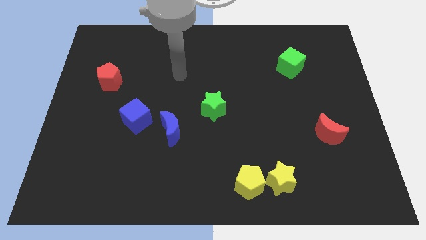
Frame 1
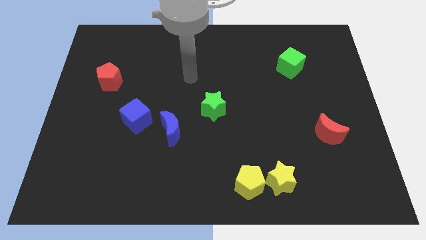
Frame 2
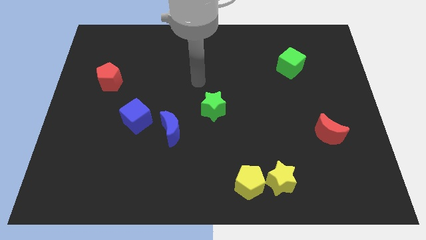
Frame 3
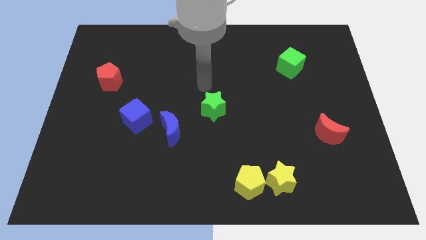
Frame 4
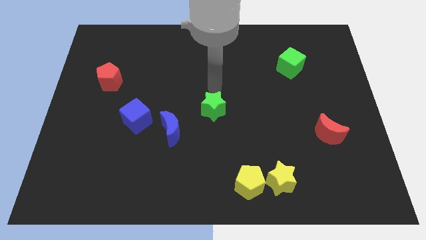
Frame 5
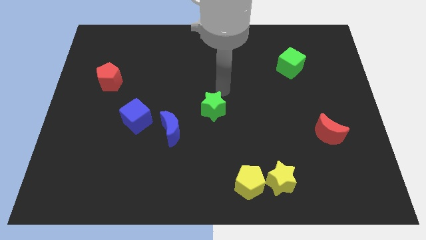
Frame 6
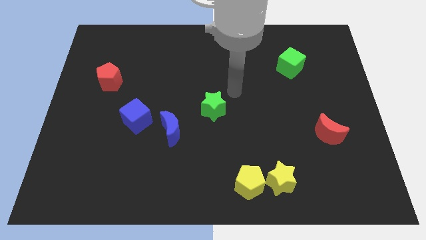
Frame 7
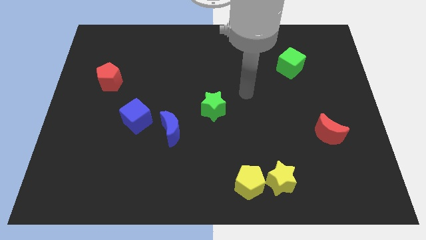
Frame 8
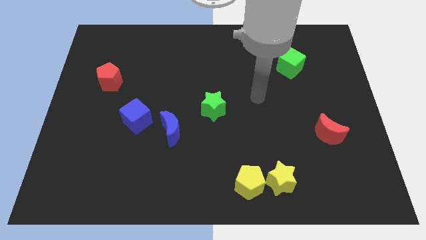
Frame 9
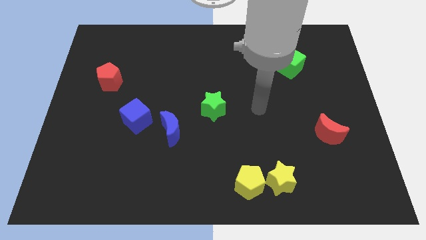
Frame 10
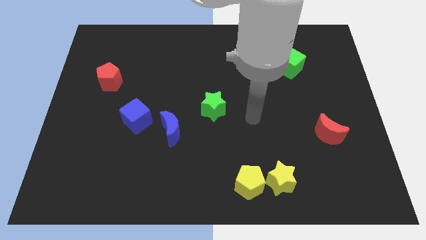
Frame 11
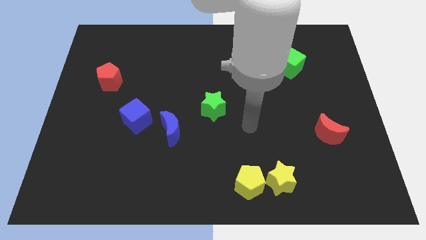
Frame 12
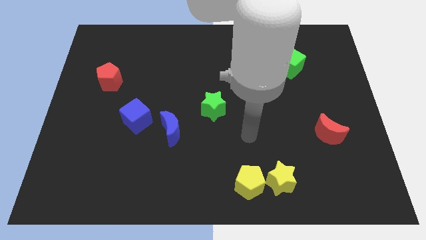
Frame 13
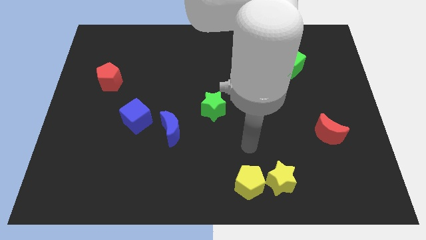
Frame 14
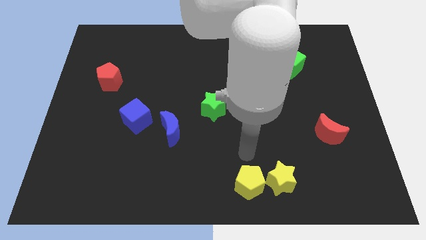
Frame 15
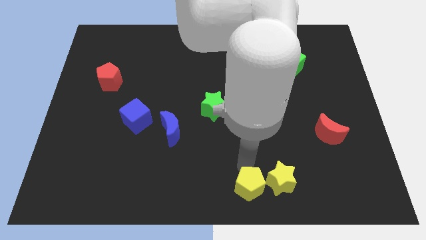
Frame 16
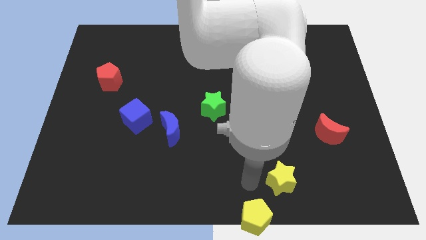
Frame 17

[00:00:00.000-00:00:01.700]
separate the yellow star from the yellow pentagon

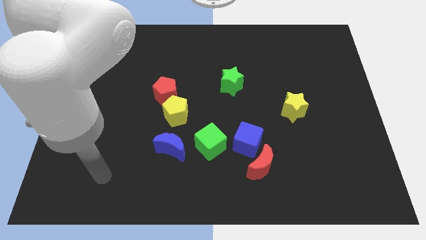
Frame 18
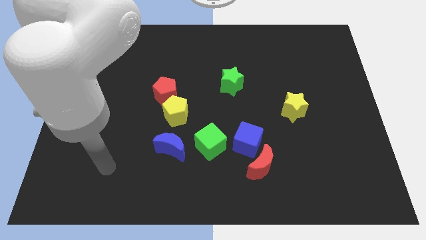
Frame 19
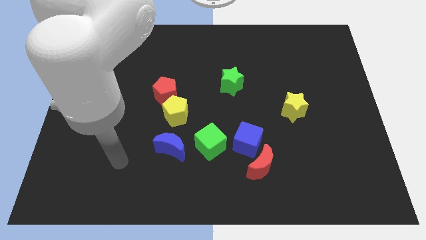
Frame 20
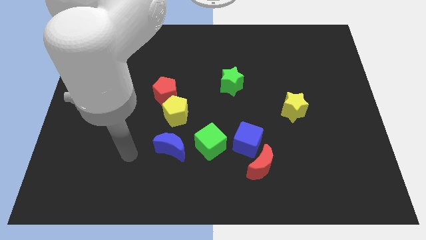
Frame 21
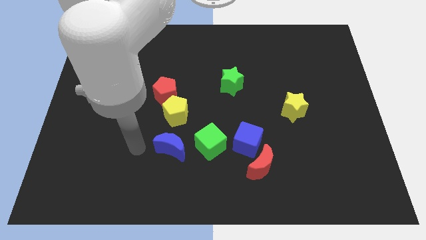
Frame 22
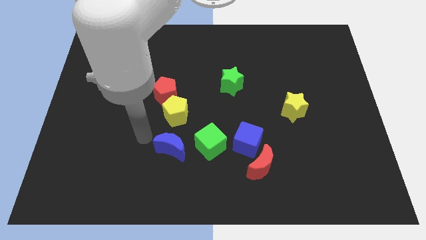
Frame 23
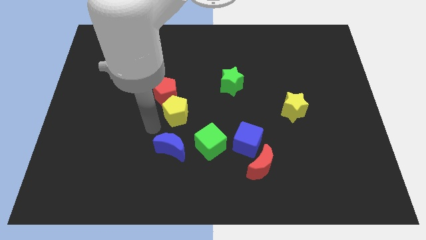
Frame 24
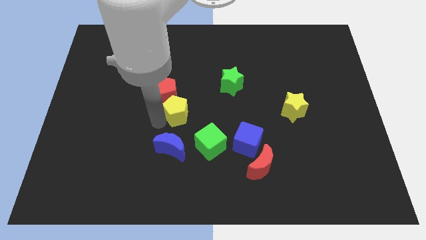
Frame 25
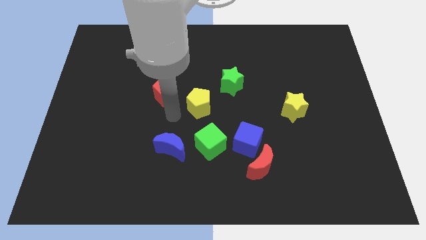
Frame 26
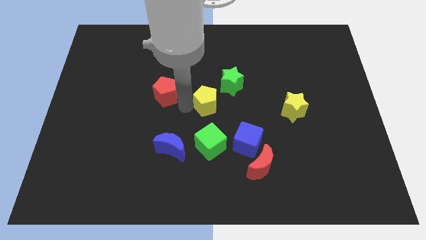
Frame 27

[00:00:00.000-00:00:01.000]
separate the red pentagon from the yellow pentagon

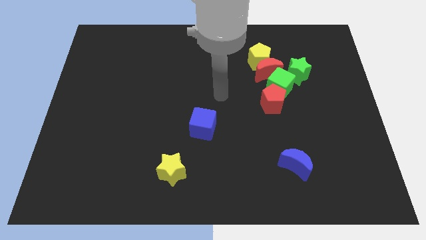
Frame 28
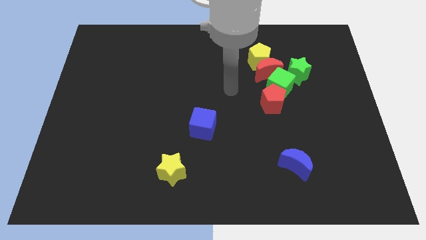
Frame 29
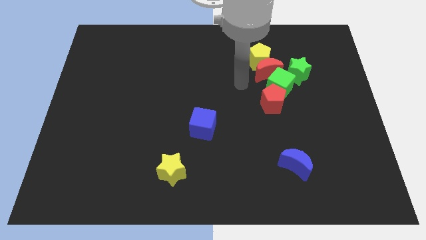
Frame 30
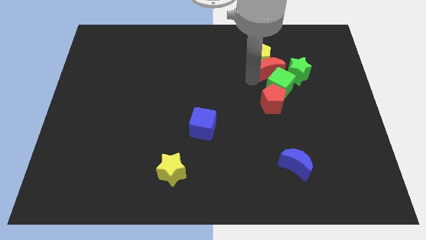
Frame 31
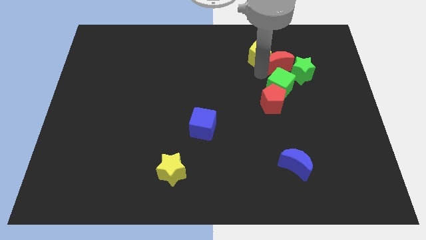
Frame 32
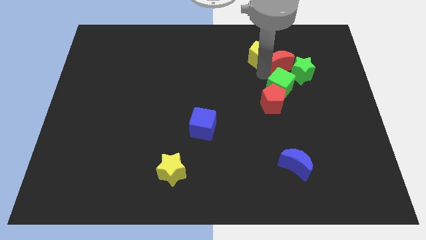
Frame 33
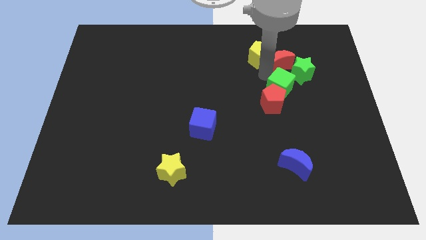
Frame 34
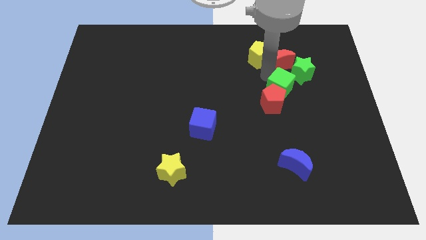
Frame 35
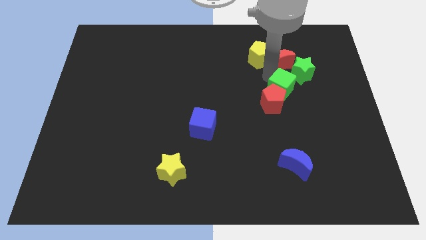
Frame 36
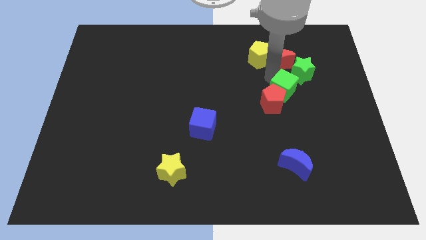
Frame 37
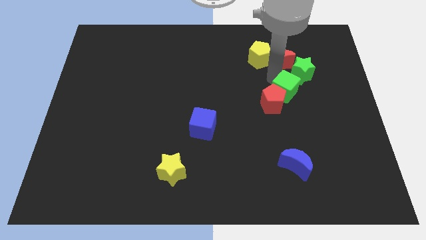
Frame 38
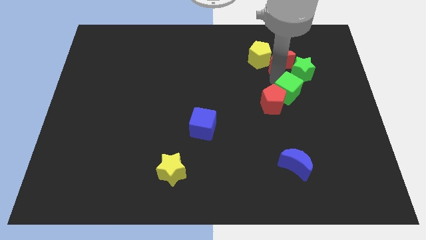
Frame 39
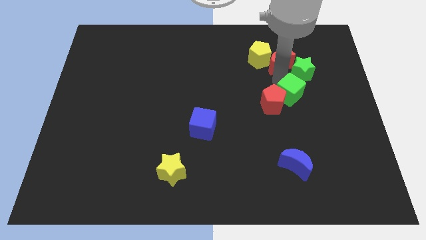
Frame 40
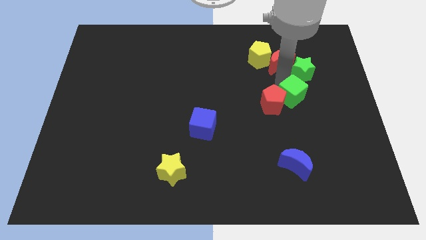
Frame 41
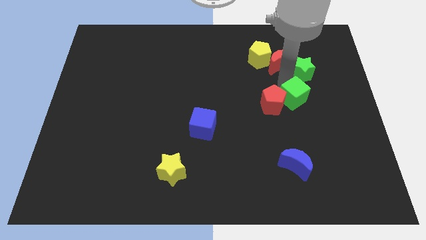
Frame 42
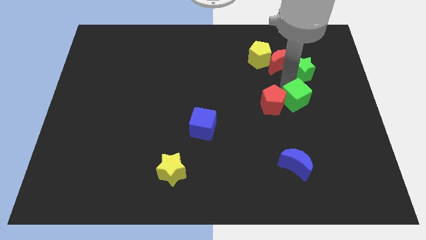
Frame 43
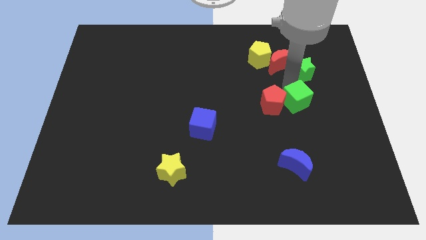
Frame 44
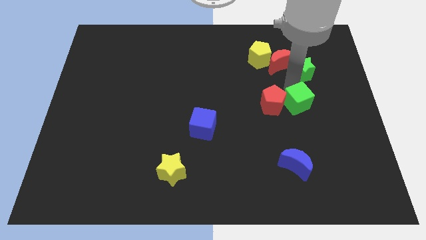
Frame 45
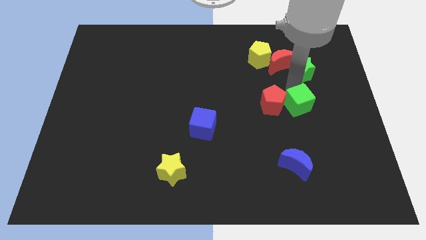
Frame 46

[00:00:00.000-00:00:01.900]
separate the green cube from the group

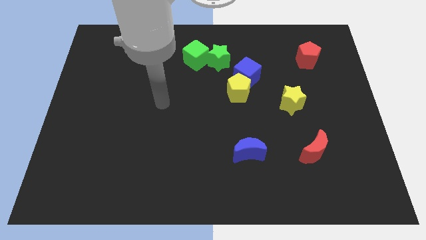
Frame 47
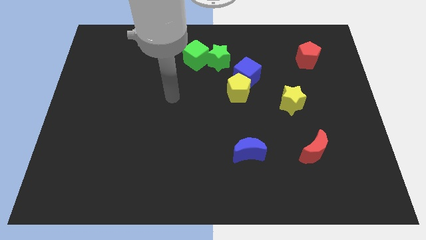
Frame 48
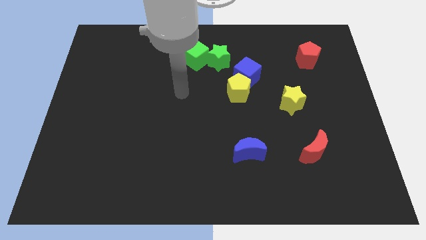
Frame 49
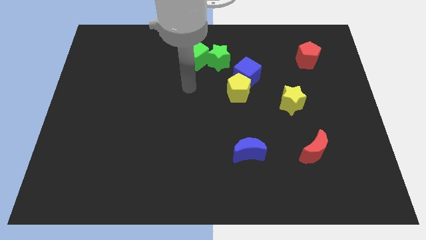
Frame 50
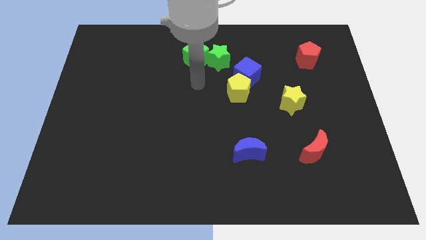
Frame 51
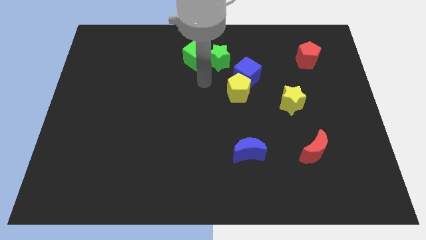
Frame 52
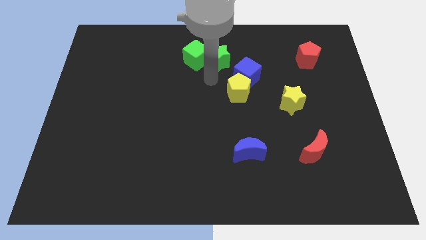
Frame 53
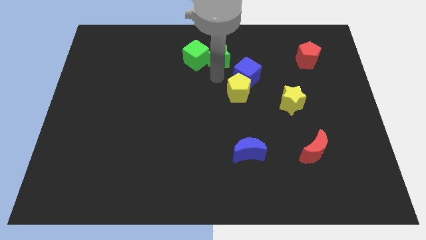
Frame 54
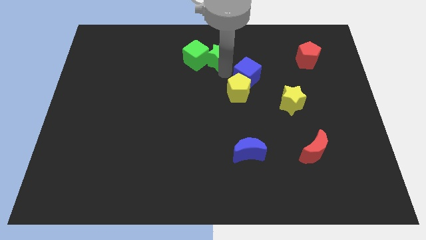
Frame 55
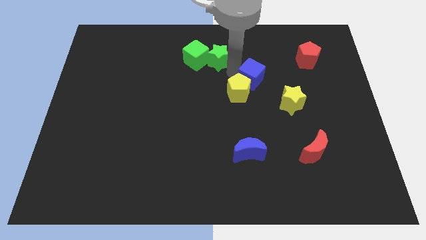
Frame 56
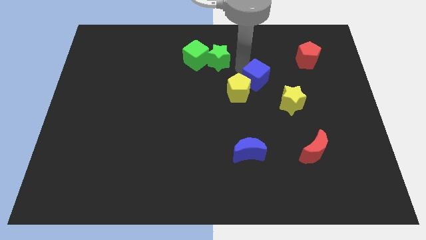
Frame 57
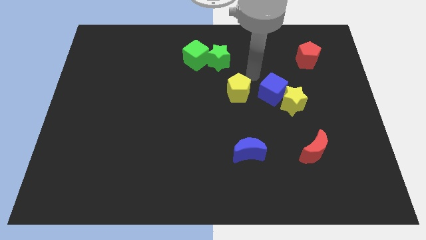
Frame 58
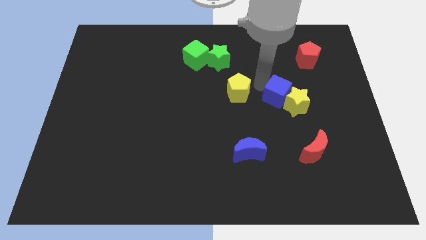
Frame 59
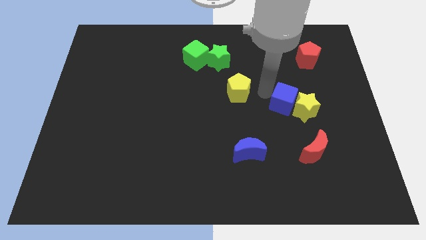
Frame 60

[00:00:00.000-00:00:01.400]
move the yellow pentagon away from the blue cube

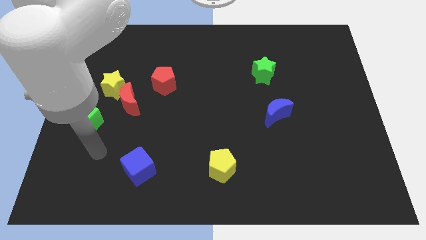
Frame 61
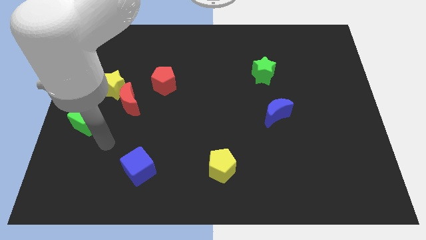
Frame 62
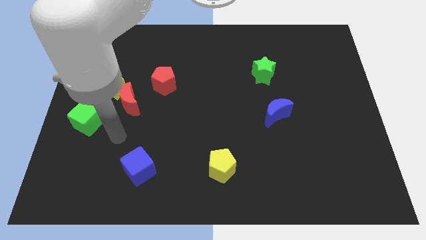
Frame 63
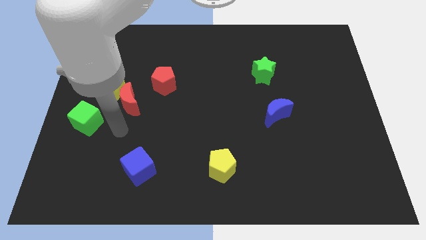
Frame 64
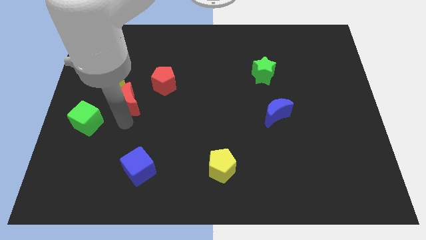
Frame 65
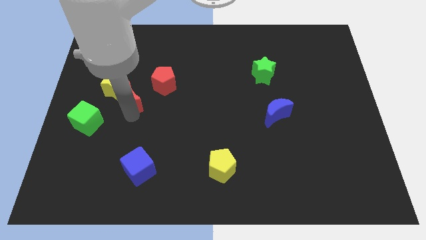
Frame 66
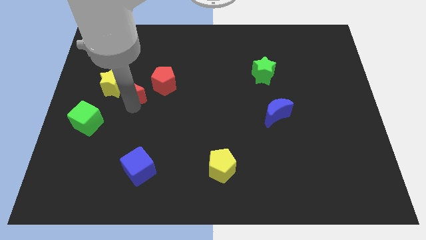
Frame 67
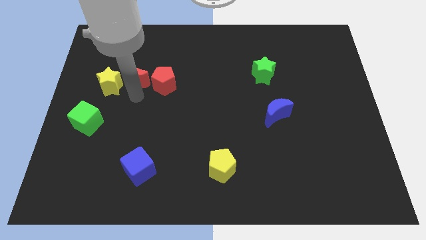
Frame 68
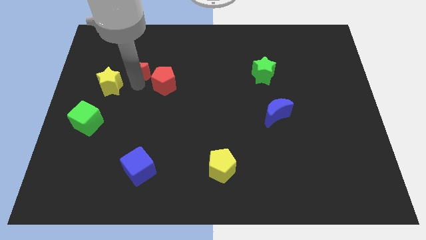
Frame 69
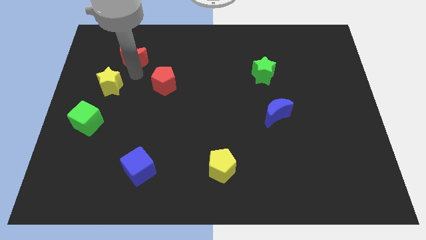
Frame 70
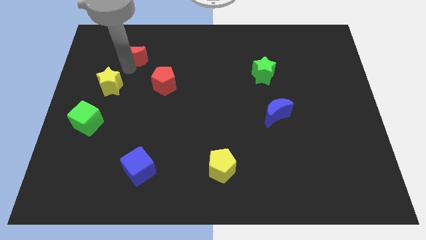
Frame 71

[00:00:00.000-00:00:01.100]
move the yellow star away from the red moon

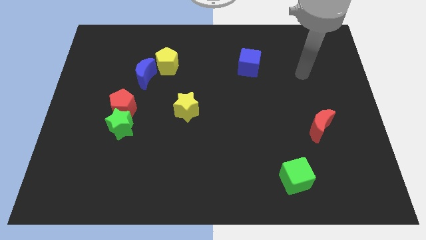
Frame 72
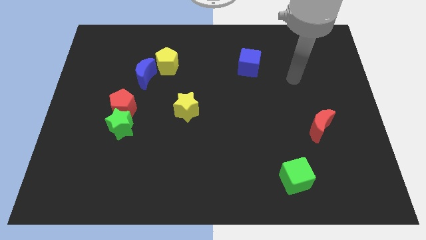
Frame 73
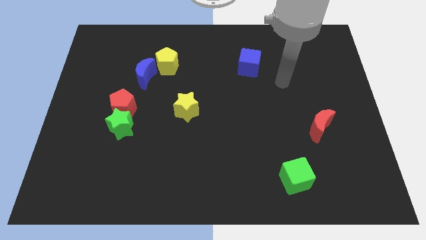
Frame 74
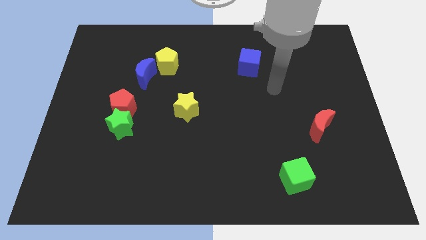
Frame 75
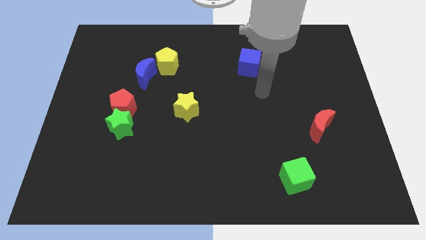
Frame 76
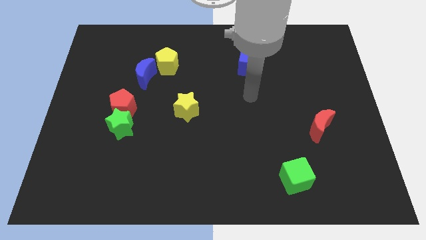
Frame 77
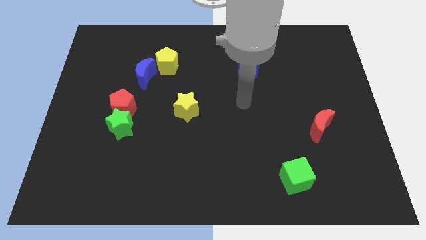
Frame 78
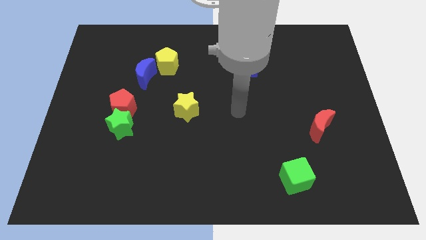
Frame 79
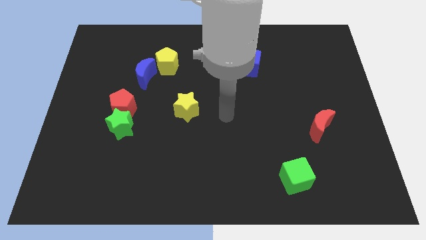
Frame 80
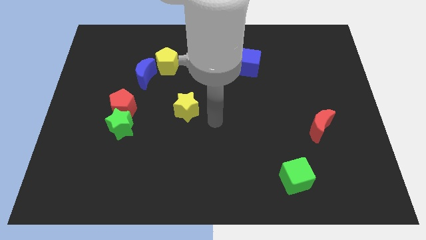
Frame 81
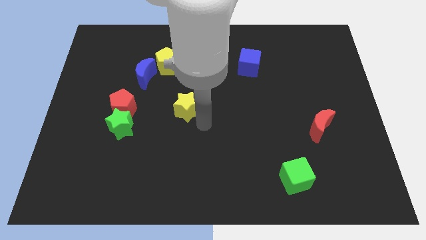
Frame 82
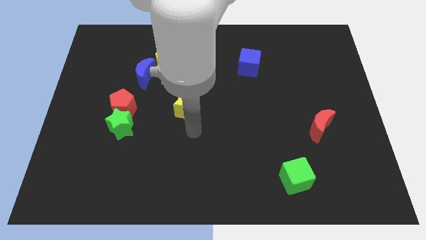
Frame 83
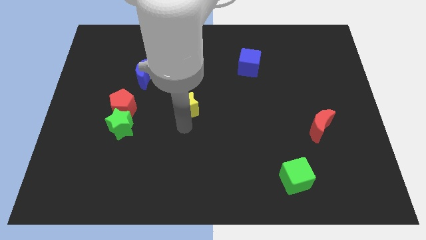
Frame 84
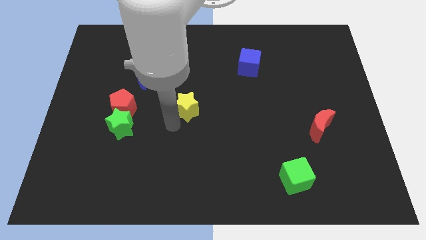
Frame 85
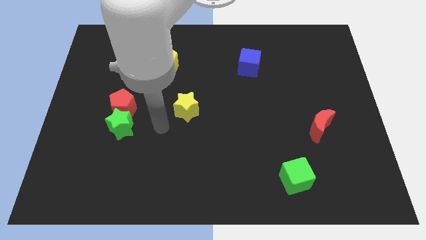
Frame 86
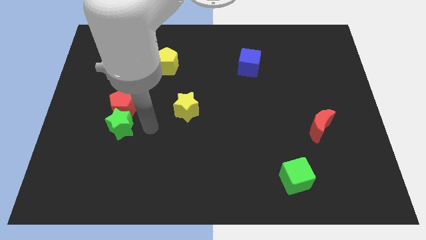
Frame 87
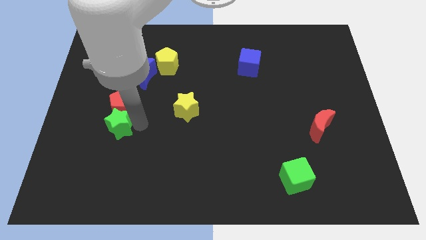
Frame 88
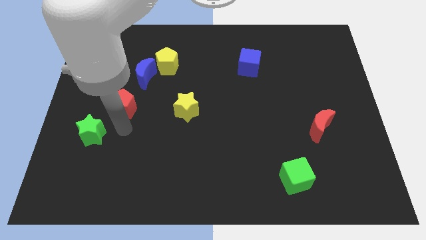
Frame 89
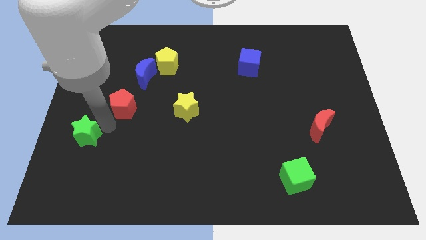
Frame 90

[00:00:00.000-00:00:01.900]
pull the red pentagon apart from the green star

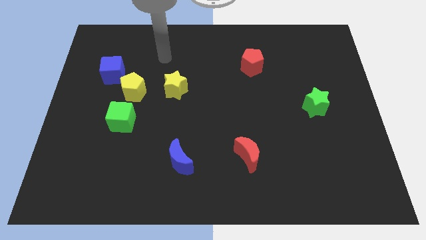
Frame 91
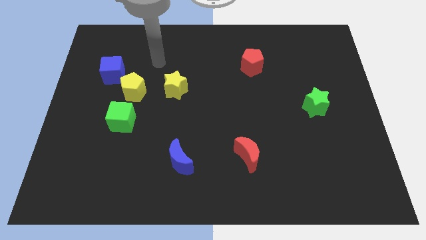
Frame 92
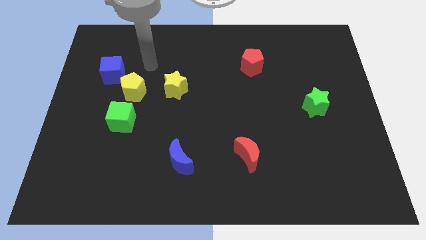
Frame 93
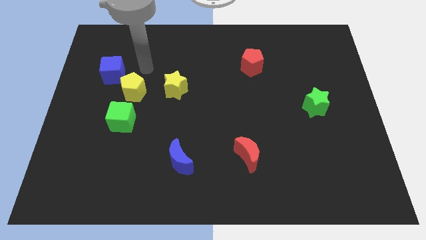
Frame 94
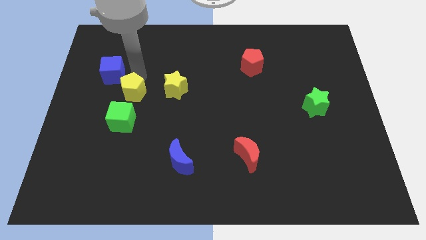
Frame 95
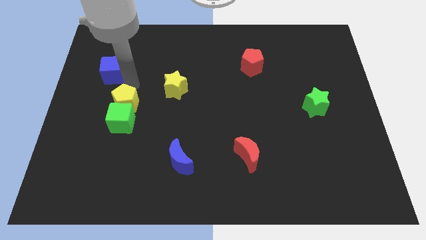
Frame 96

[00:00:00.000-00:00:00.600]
move the blue cube away from the yellow pentagon
